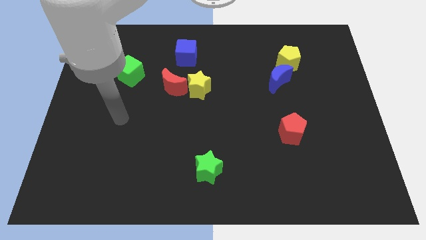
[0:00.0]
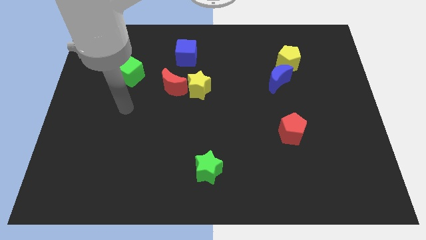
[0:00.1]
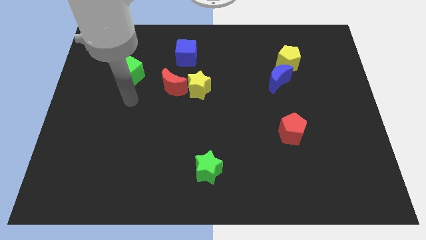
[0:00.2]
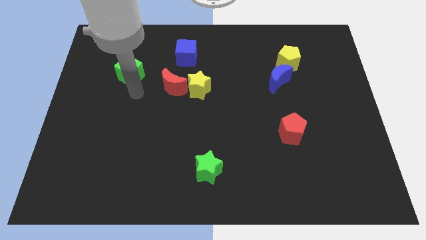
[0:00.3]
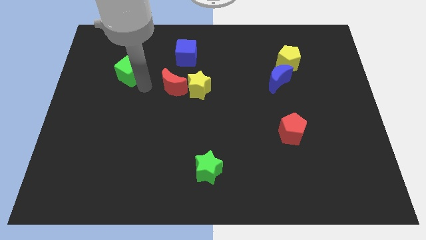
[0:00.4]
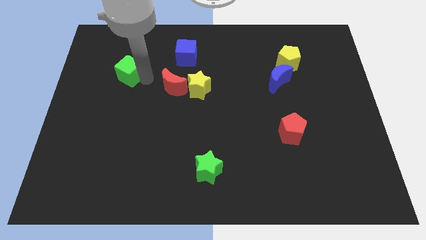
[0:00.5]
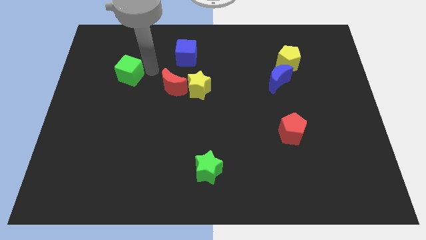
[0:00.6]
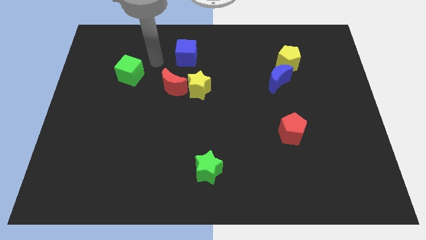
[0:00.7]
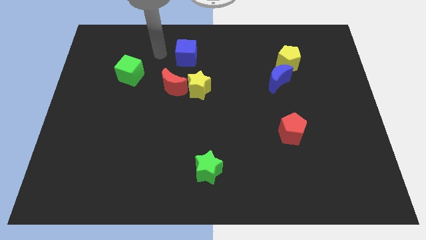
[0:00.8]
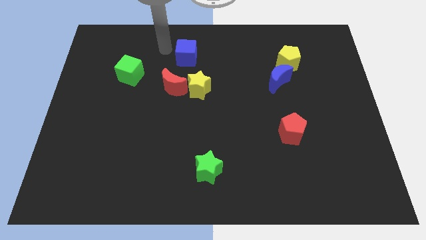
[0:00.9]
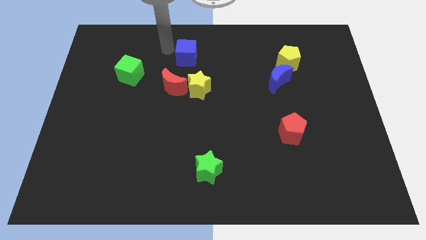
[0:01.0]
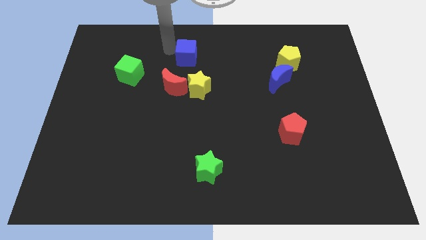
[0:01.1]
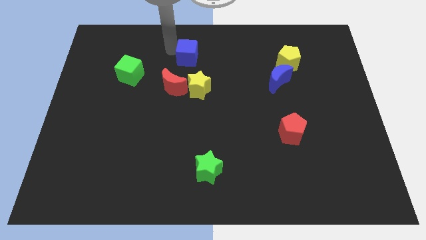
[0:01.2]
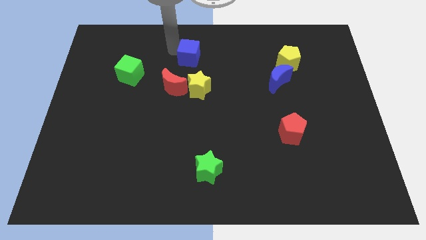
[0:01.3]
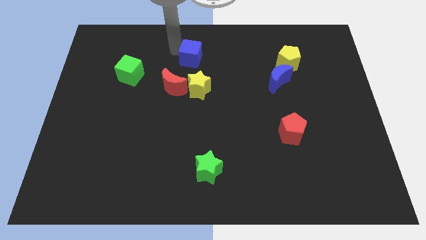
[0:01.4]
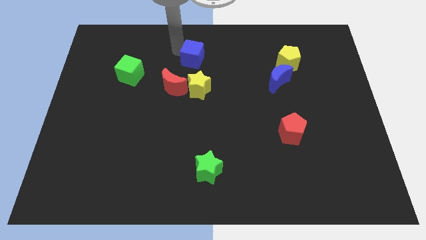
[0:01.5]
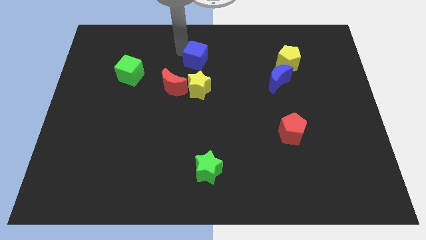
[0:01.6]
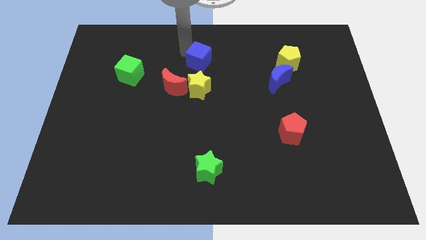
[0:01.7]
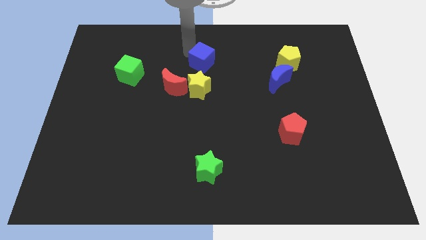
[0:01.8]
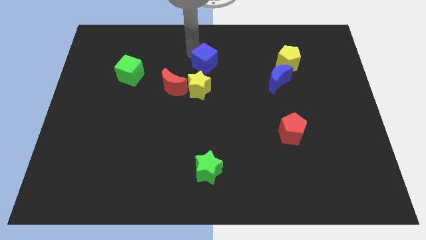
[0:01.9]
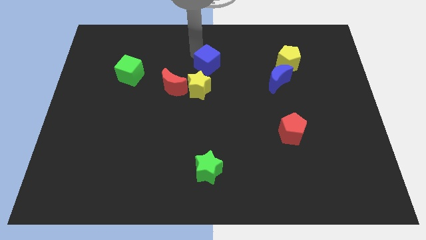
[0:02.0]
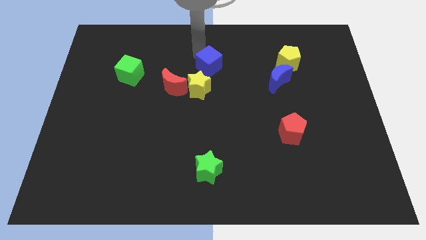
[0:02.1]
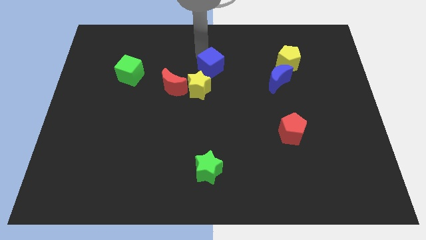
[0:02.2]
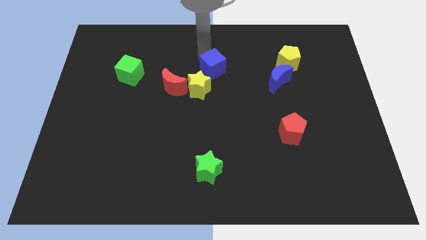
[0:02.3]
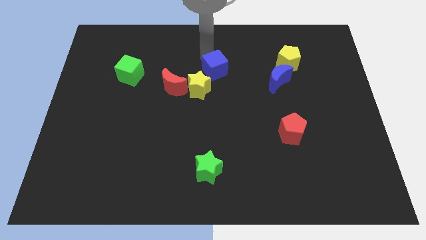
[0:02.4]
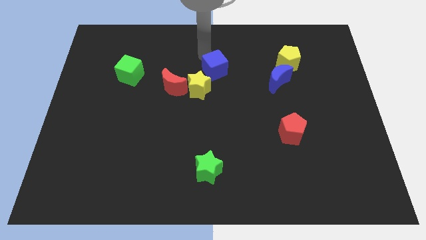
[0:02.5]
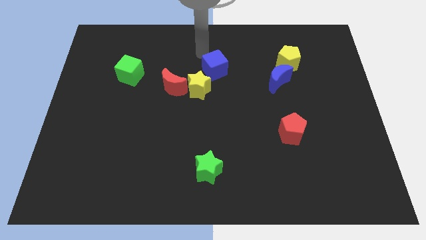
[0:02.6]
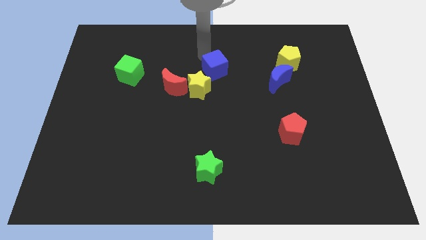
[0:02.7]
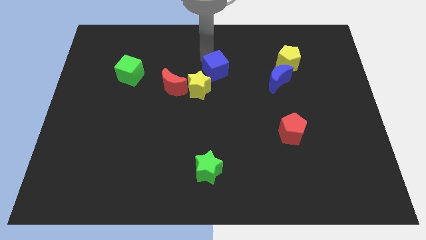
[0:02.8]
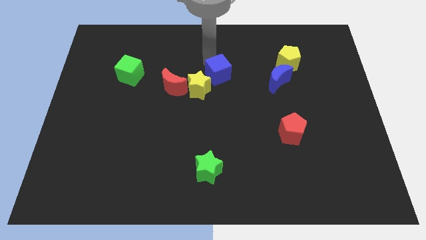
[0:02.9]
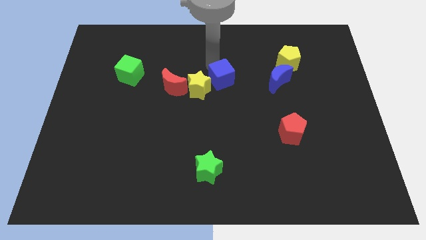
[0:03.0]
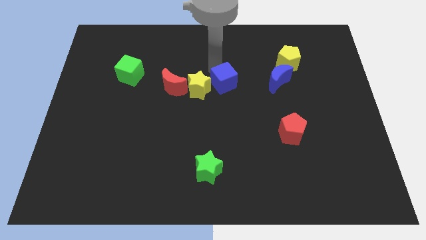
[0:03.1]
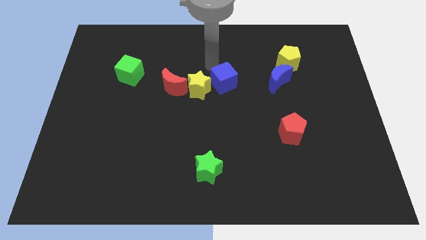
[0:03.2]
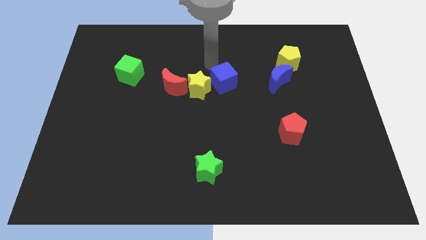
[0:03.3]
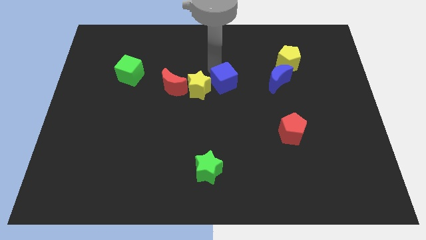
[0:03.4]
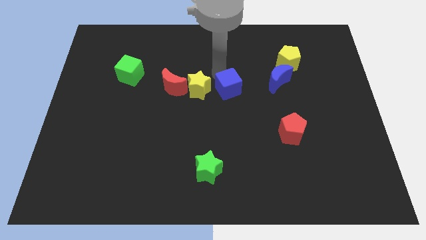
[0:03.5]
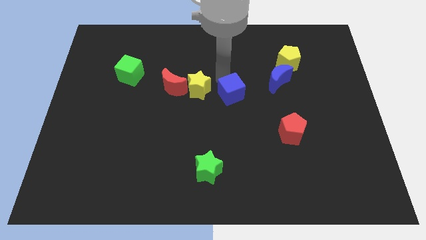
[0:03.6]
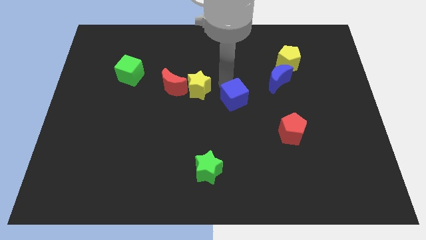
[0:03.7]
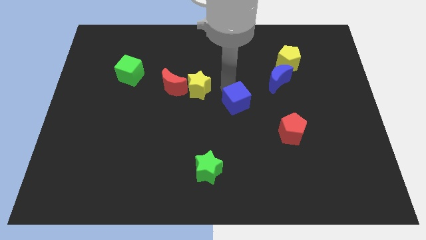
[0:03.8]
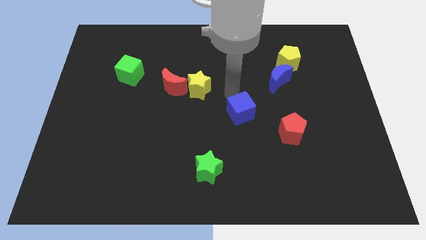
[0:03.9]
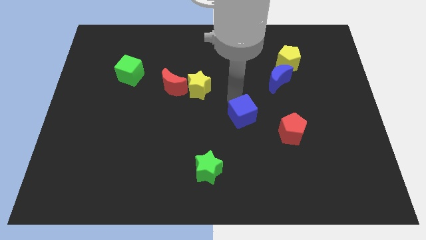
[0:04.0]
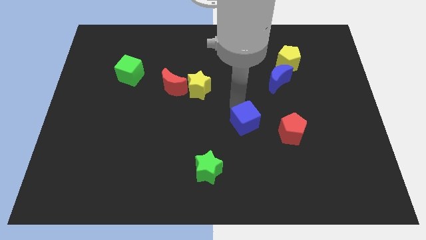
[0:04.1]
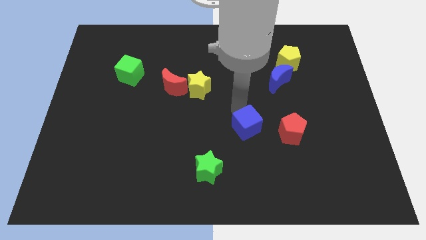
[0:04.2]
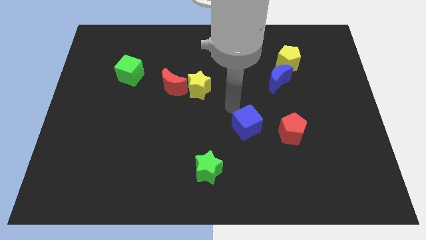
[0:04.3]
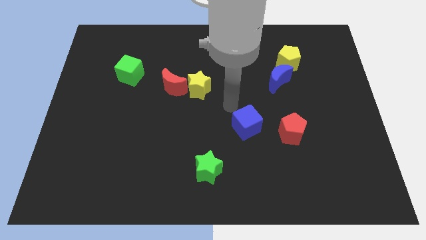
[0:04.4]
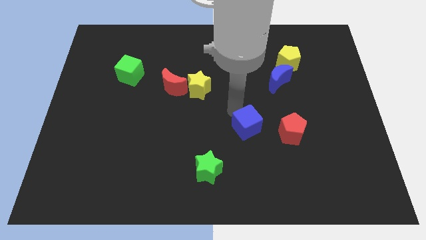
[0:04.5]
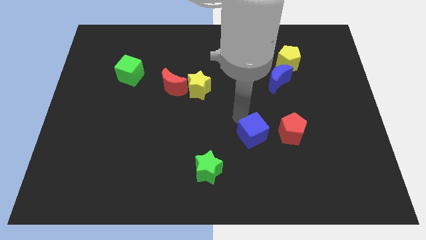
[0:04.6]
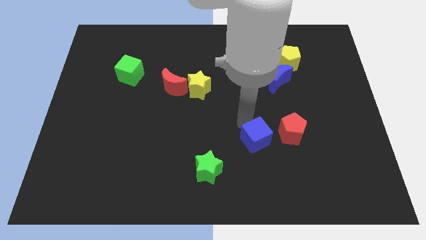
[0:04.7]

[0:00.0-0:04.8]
put the blue cube to the bottom left side of the red pentagon

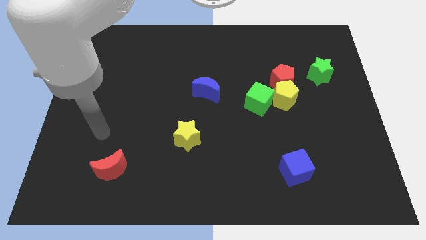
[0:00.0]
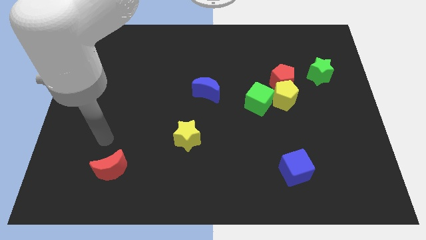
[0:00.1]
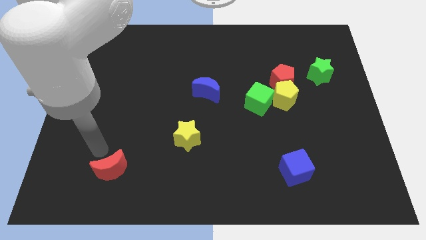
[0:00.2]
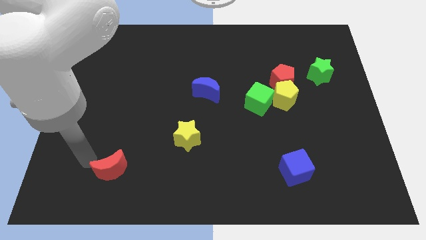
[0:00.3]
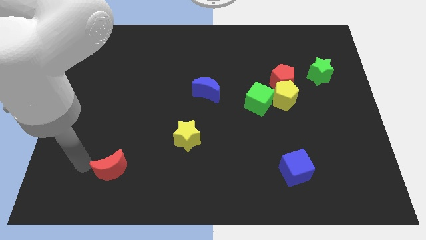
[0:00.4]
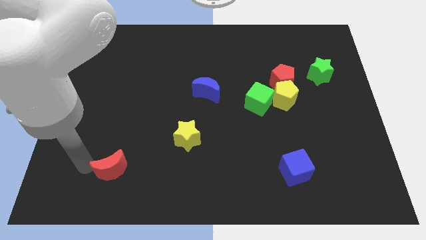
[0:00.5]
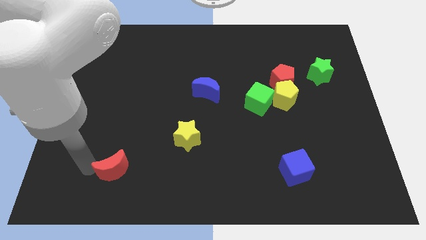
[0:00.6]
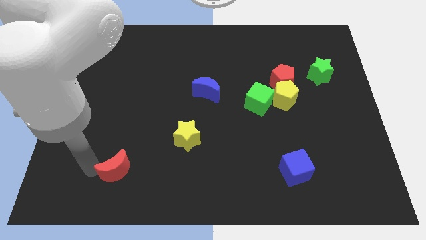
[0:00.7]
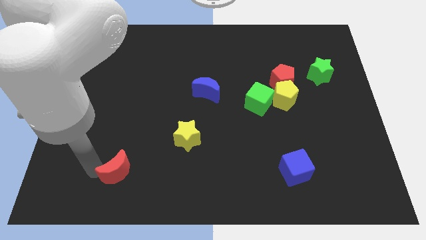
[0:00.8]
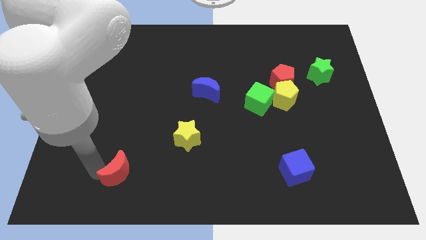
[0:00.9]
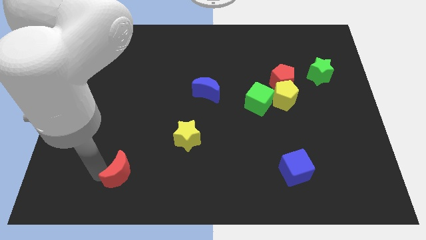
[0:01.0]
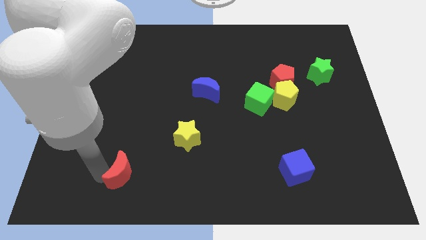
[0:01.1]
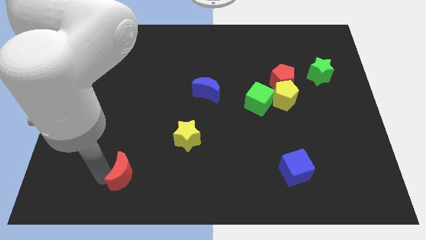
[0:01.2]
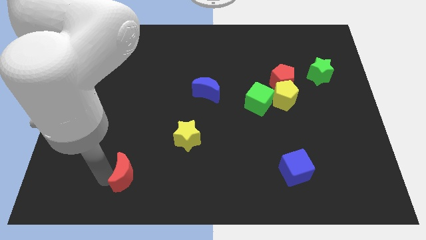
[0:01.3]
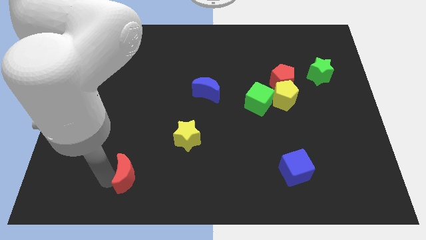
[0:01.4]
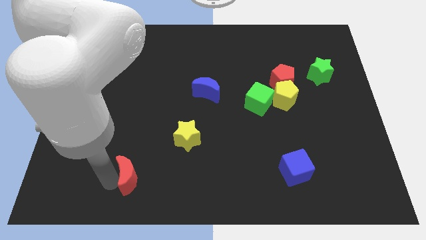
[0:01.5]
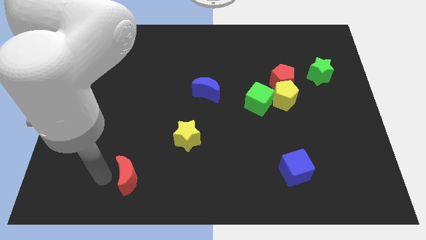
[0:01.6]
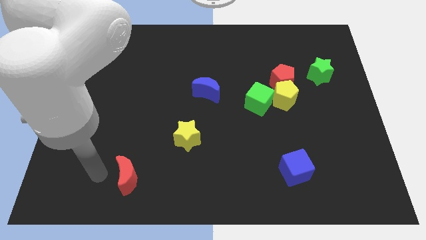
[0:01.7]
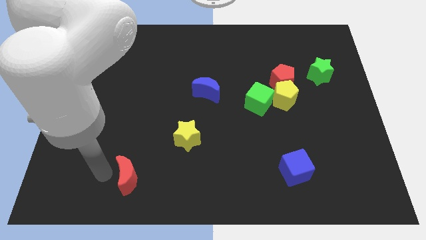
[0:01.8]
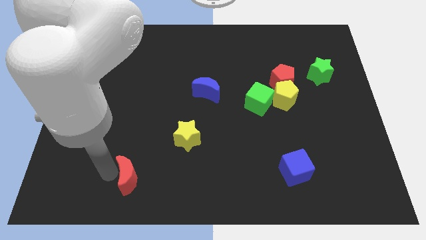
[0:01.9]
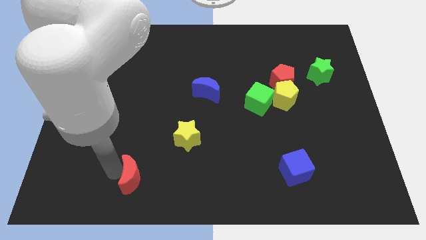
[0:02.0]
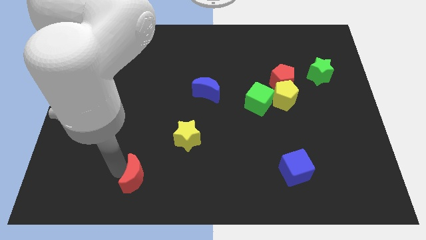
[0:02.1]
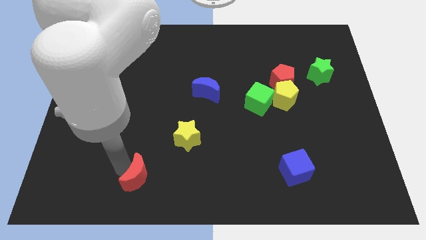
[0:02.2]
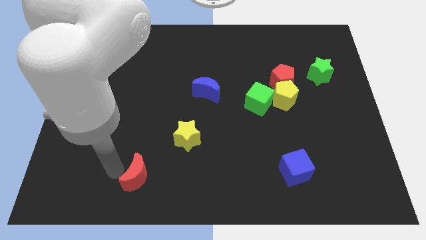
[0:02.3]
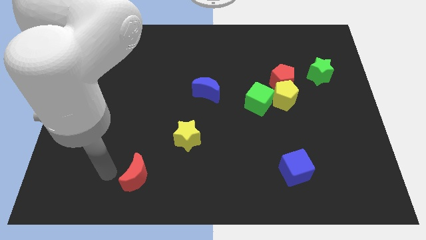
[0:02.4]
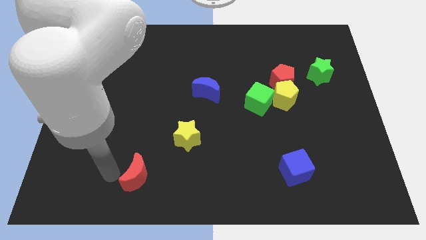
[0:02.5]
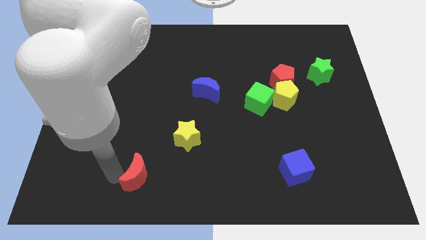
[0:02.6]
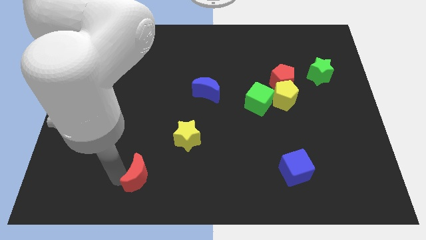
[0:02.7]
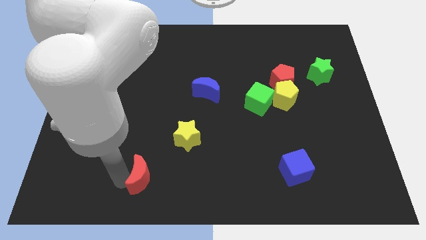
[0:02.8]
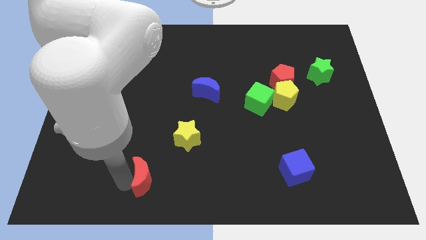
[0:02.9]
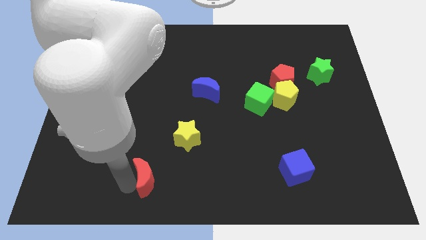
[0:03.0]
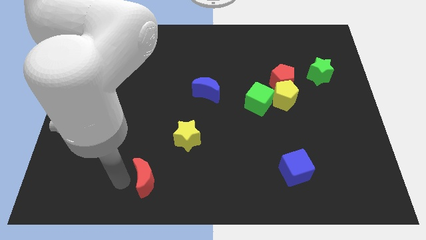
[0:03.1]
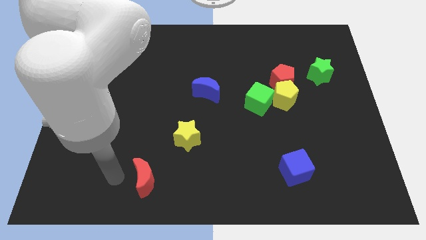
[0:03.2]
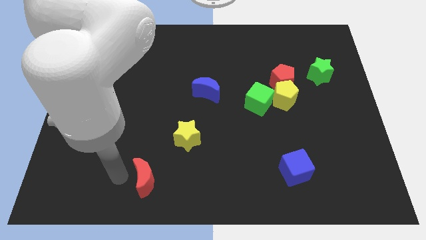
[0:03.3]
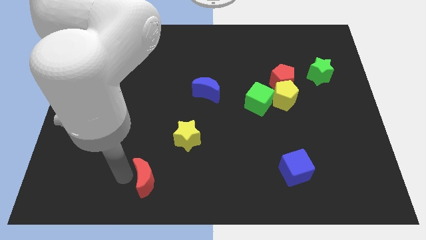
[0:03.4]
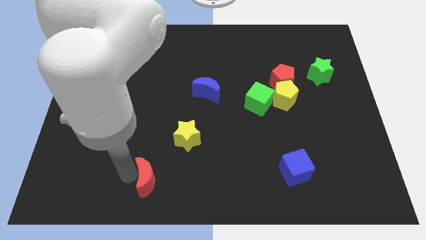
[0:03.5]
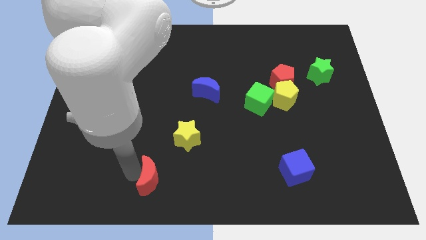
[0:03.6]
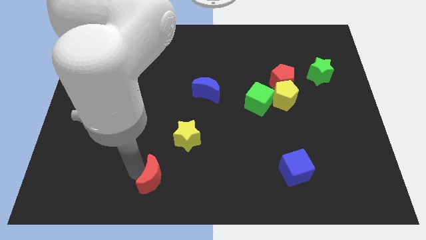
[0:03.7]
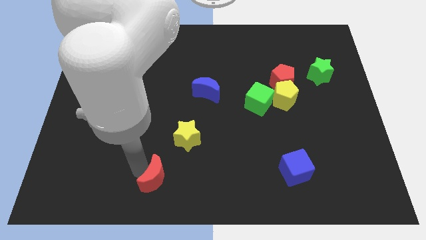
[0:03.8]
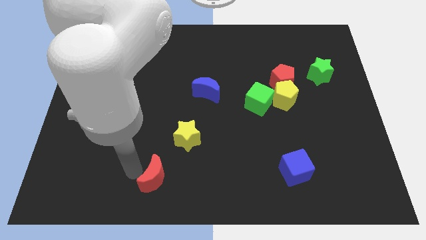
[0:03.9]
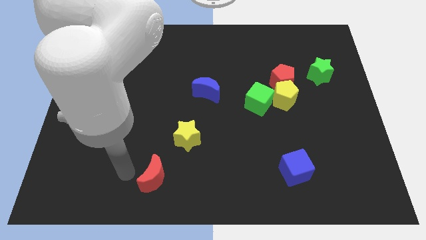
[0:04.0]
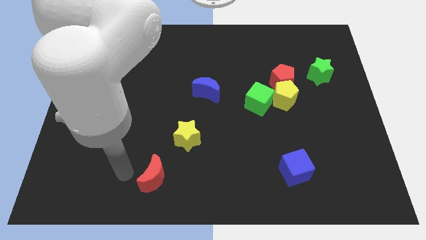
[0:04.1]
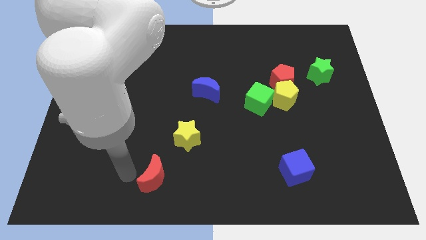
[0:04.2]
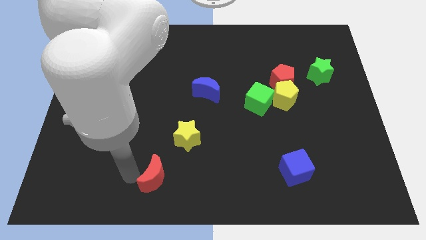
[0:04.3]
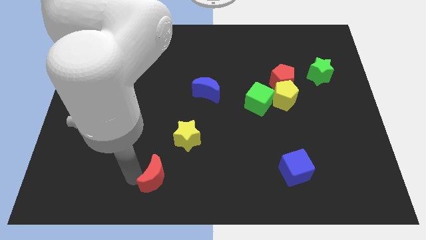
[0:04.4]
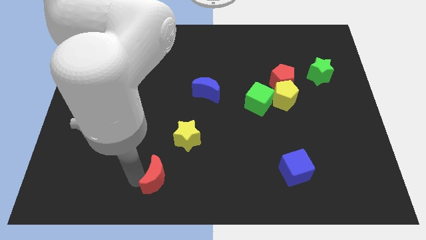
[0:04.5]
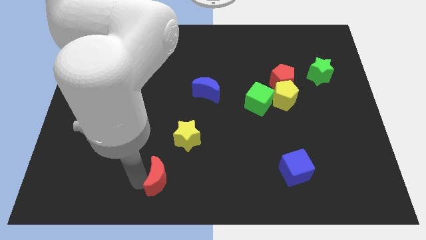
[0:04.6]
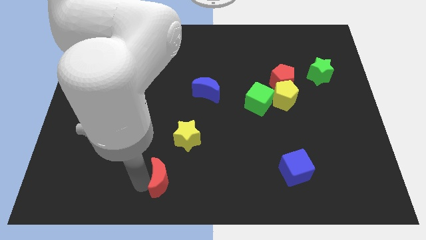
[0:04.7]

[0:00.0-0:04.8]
slide the red moon below the yellow star
